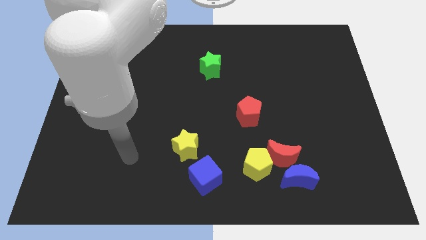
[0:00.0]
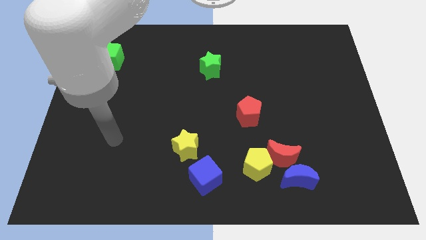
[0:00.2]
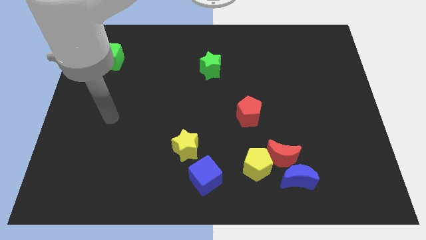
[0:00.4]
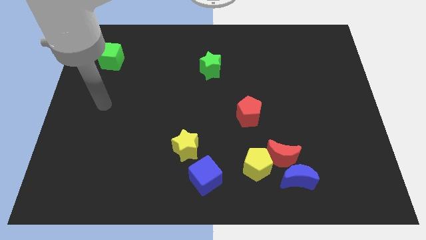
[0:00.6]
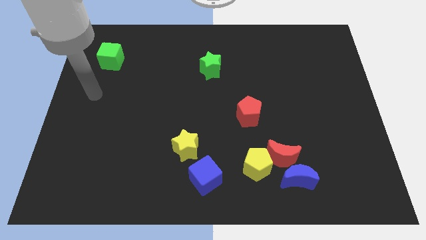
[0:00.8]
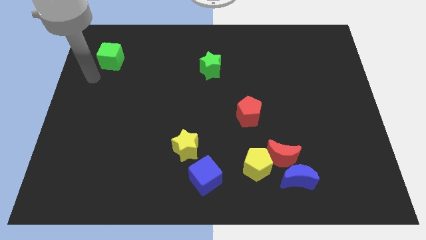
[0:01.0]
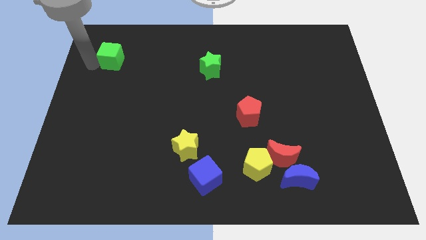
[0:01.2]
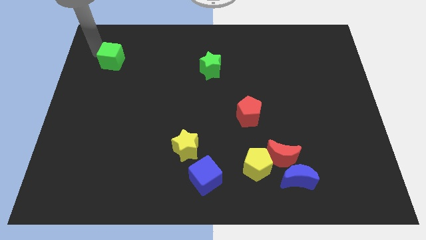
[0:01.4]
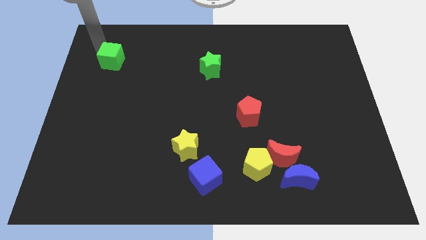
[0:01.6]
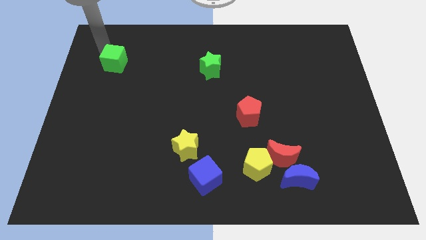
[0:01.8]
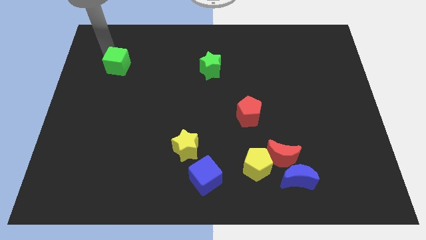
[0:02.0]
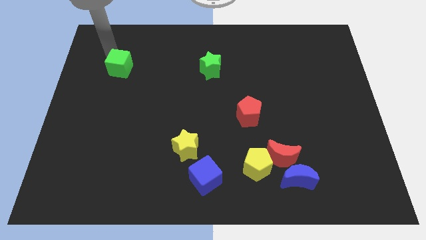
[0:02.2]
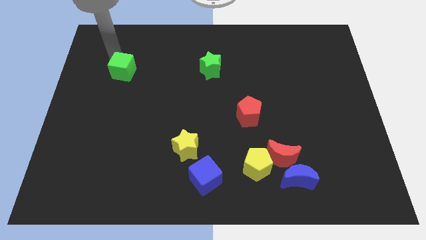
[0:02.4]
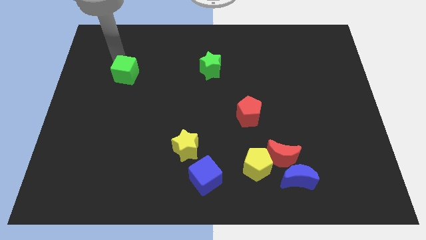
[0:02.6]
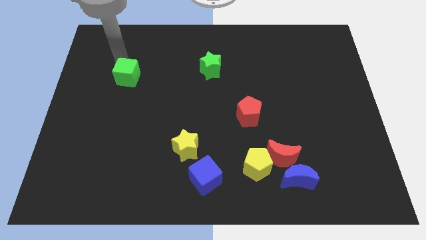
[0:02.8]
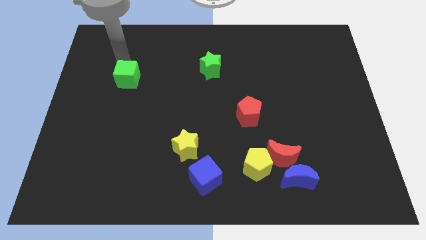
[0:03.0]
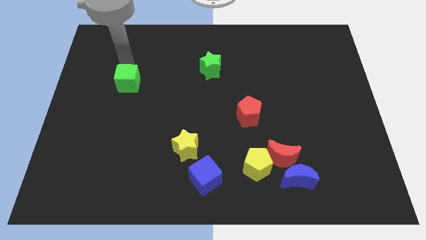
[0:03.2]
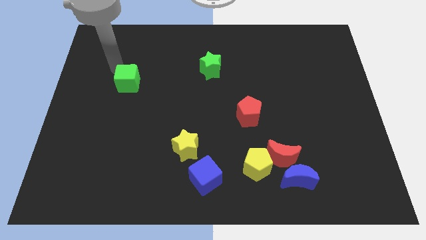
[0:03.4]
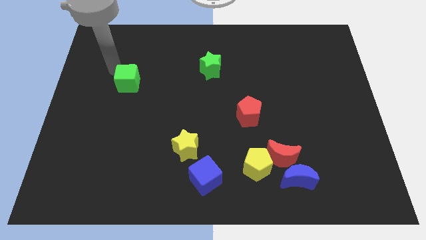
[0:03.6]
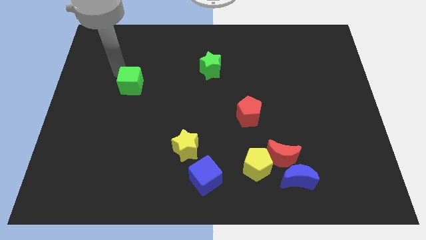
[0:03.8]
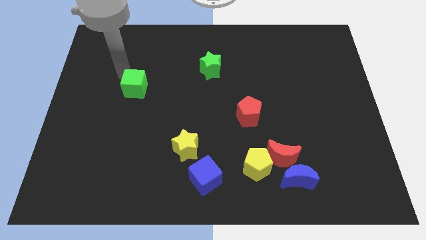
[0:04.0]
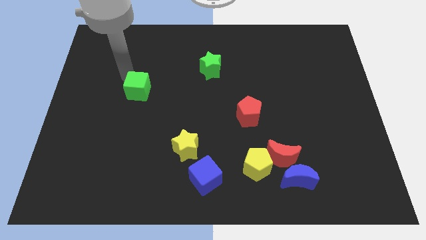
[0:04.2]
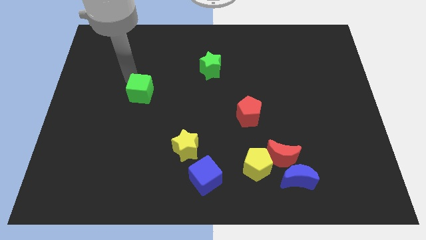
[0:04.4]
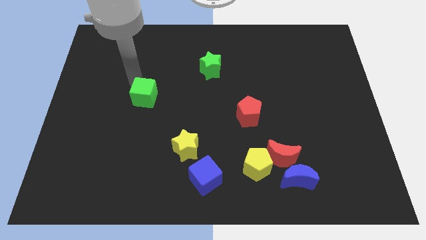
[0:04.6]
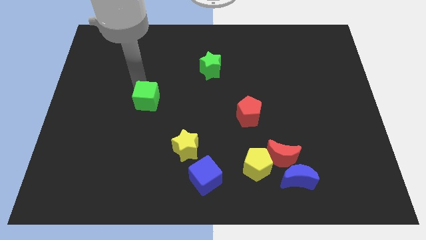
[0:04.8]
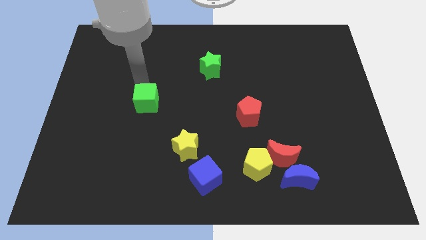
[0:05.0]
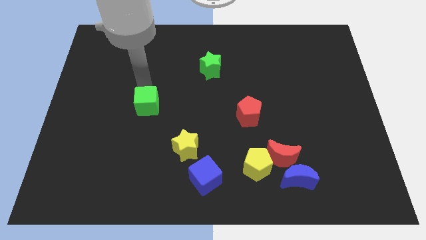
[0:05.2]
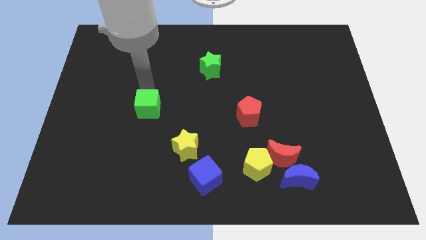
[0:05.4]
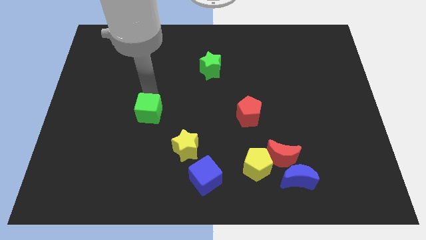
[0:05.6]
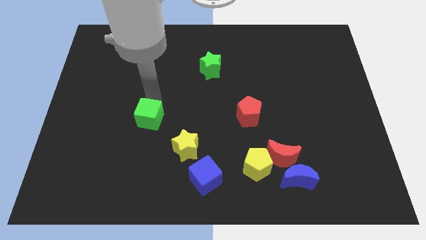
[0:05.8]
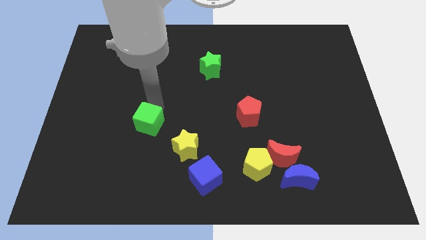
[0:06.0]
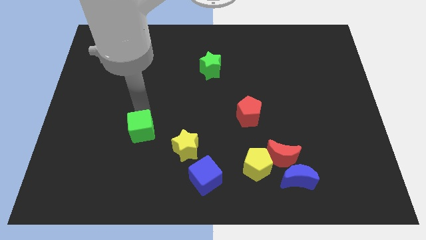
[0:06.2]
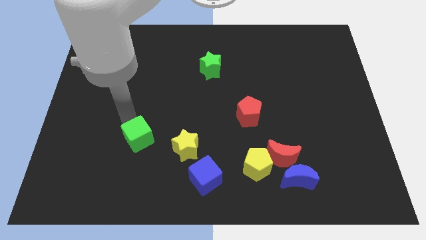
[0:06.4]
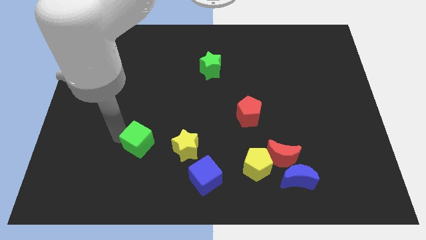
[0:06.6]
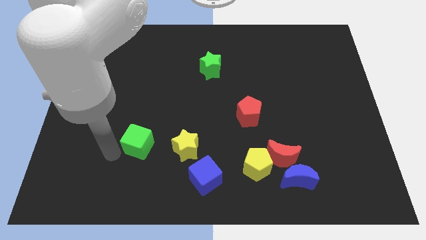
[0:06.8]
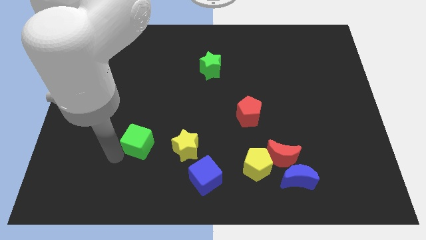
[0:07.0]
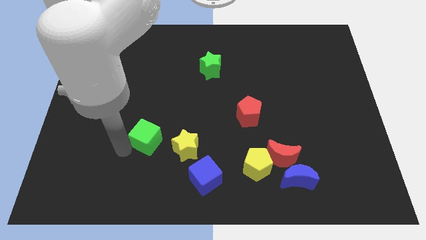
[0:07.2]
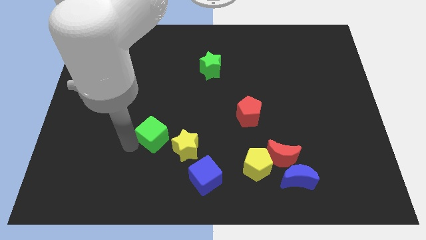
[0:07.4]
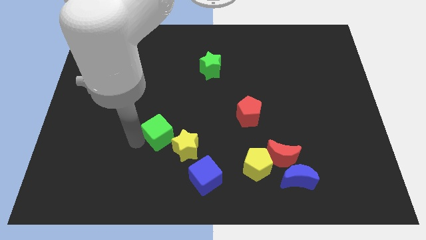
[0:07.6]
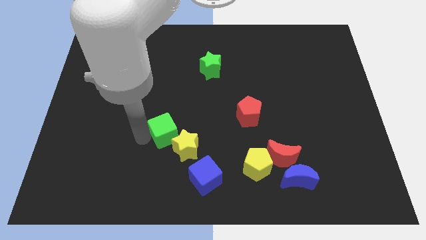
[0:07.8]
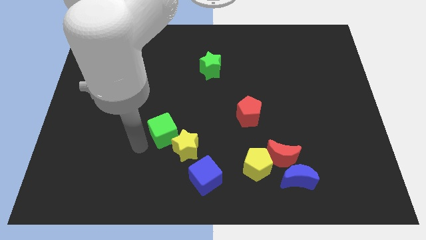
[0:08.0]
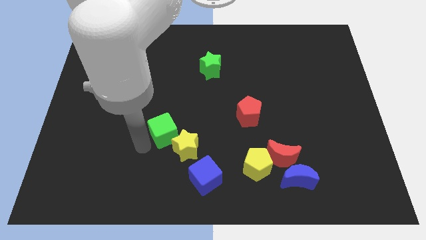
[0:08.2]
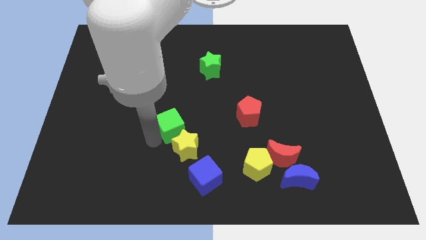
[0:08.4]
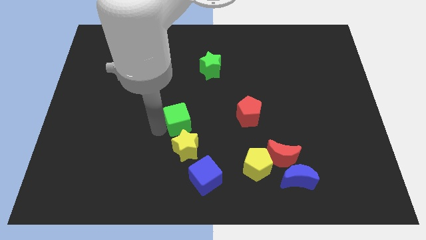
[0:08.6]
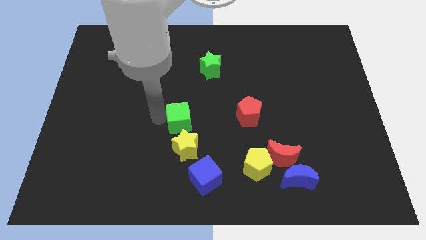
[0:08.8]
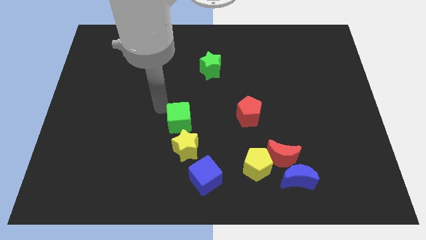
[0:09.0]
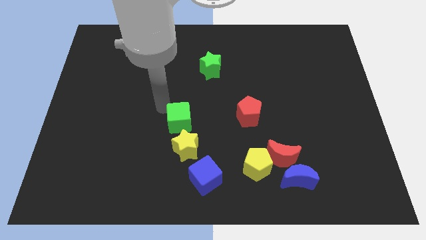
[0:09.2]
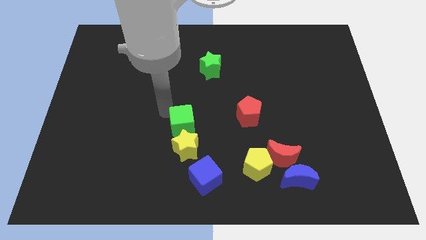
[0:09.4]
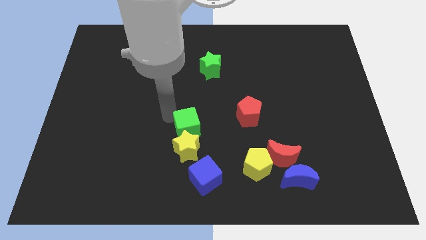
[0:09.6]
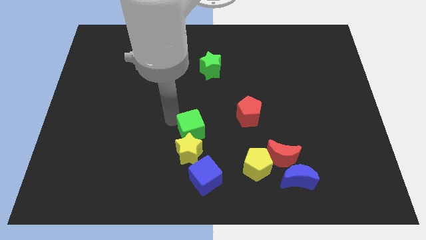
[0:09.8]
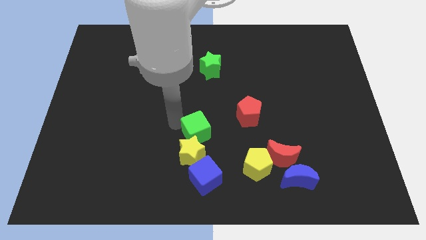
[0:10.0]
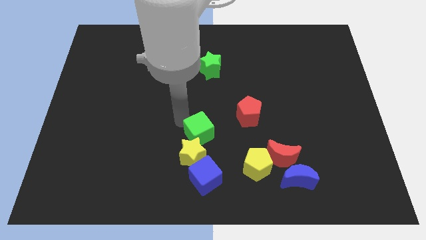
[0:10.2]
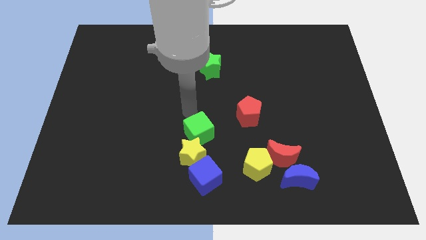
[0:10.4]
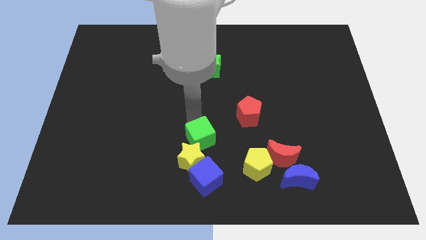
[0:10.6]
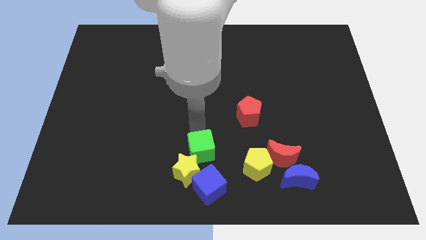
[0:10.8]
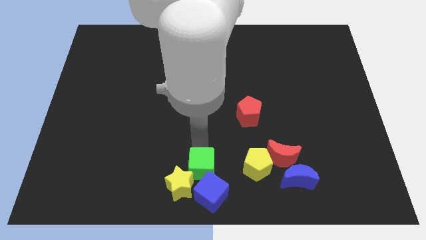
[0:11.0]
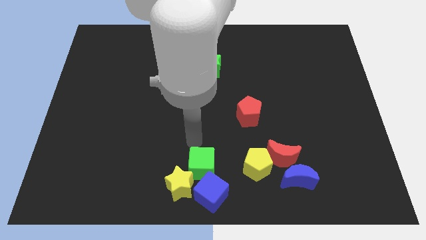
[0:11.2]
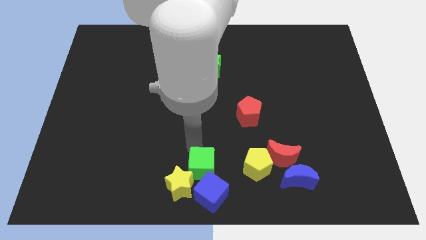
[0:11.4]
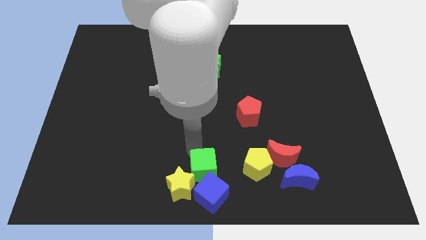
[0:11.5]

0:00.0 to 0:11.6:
put the green cube to the blue cube

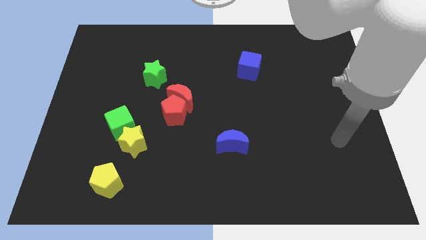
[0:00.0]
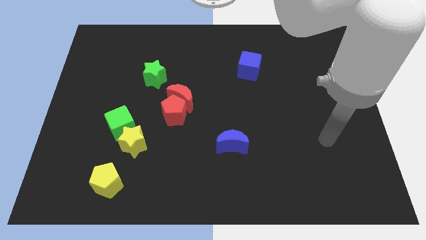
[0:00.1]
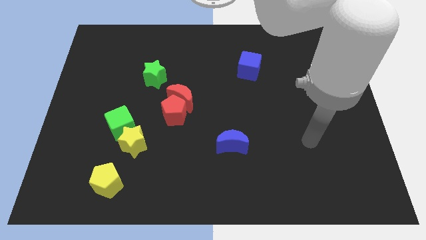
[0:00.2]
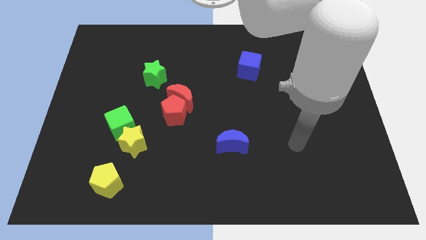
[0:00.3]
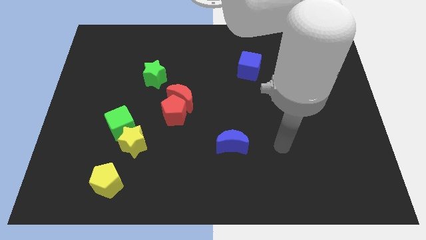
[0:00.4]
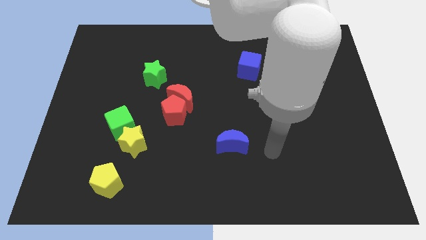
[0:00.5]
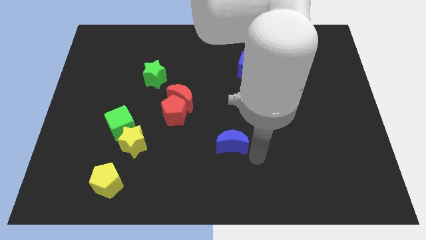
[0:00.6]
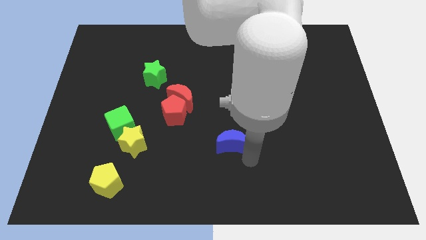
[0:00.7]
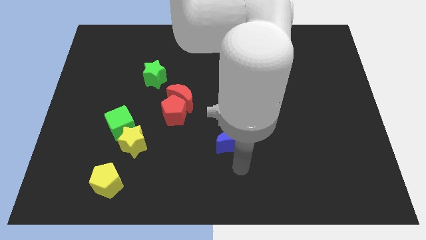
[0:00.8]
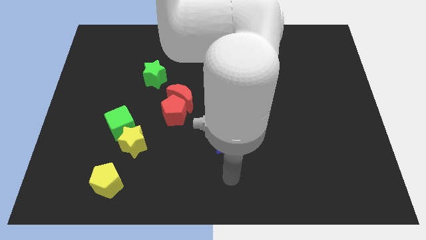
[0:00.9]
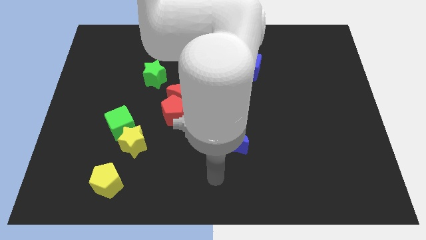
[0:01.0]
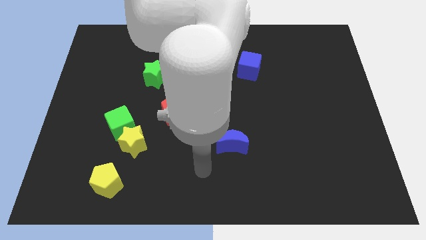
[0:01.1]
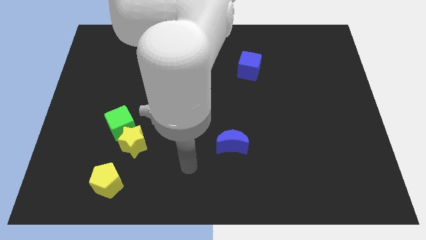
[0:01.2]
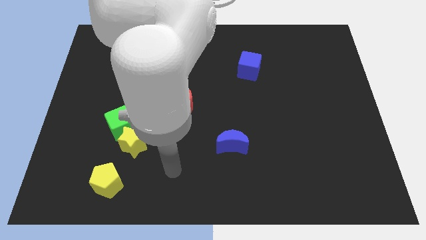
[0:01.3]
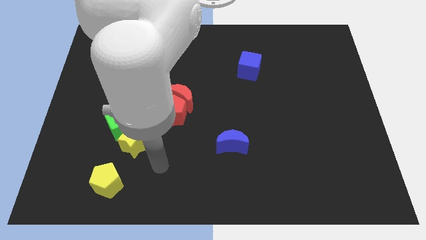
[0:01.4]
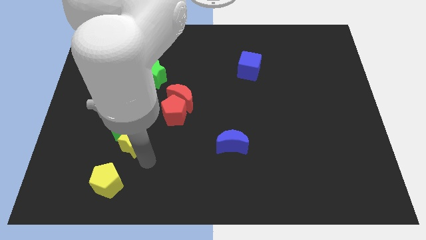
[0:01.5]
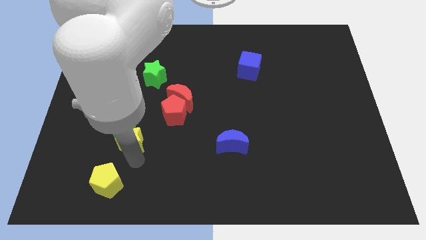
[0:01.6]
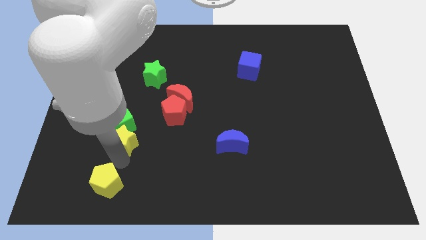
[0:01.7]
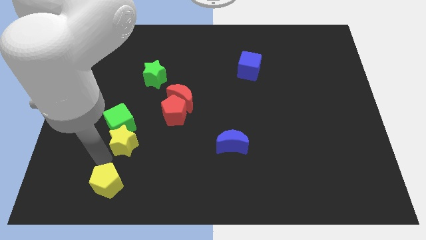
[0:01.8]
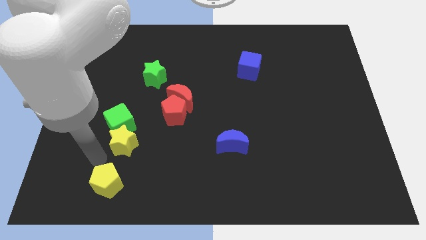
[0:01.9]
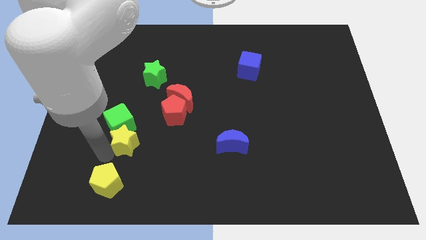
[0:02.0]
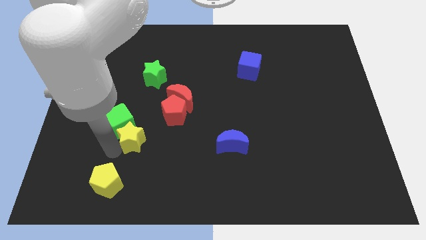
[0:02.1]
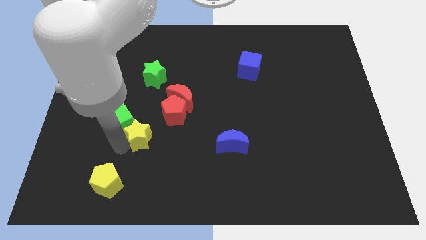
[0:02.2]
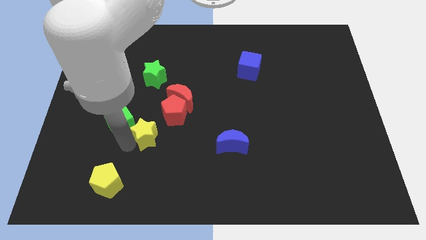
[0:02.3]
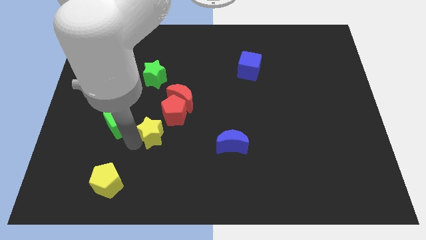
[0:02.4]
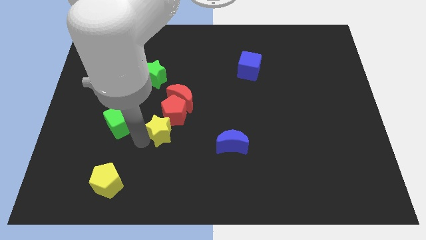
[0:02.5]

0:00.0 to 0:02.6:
push the yellow star next to the red pentagon
